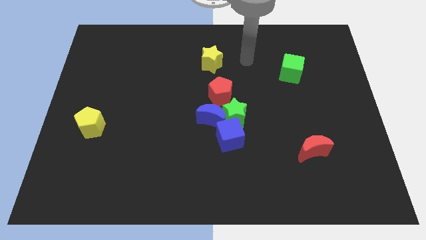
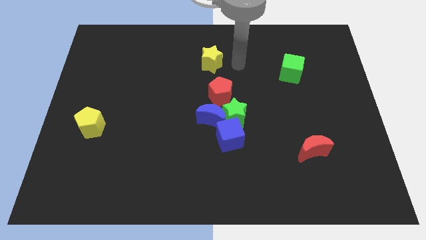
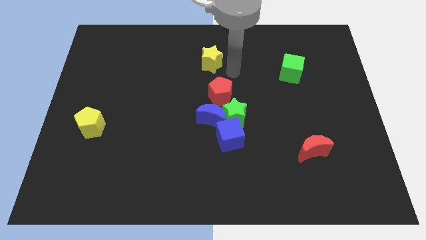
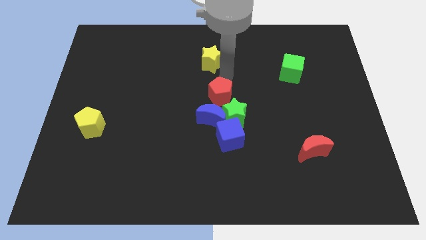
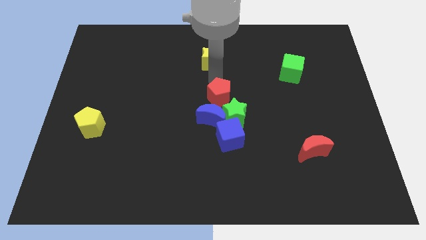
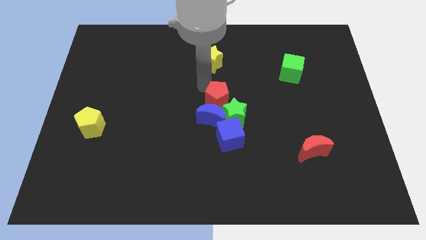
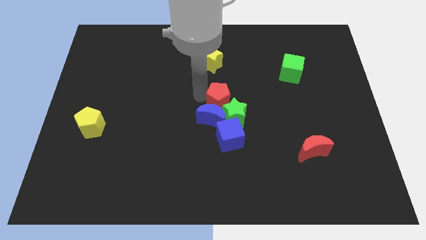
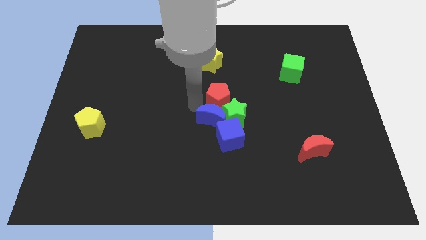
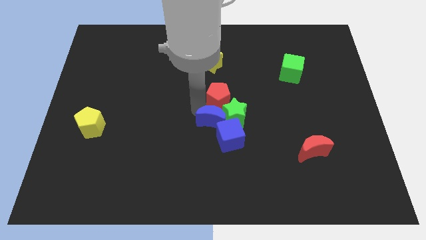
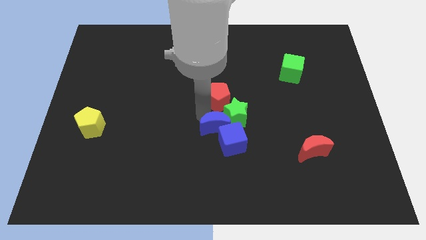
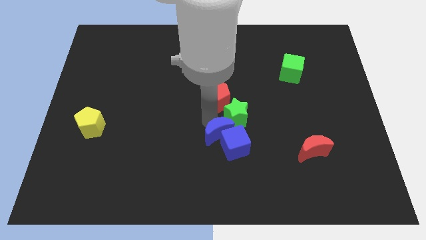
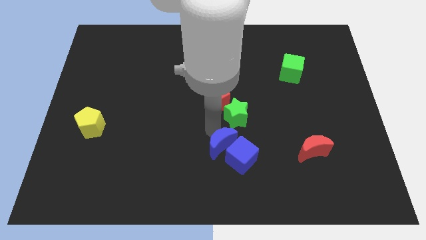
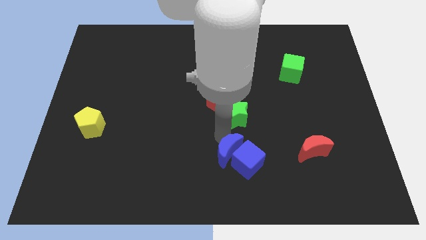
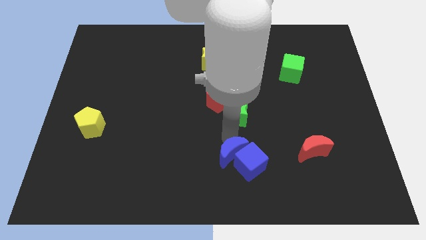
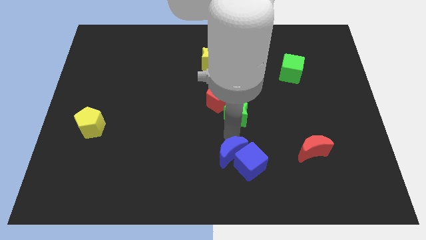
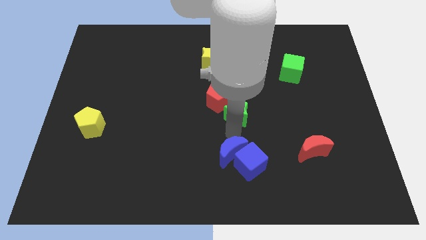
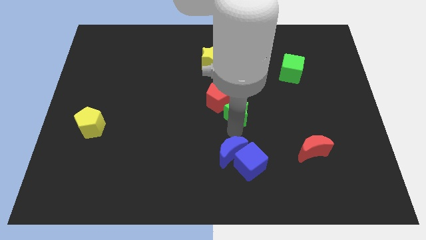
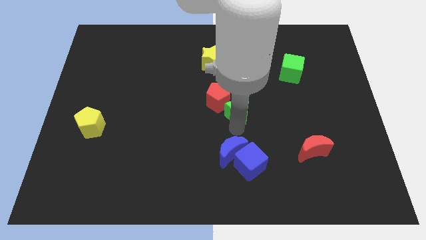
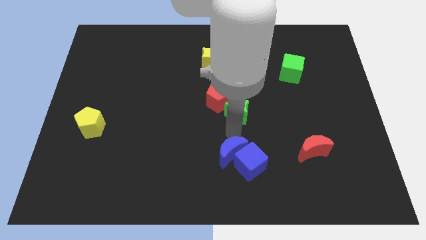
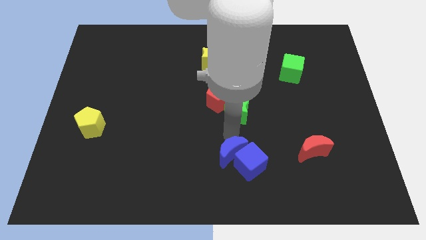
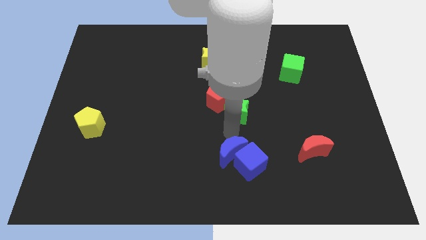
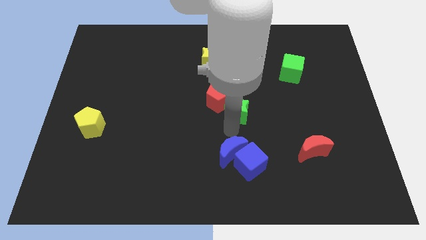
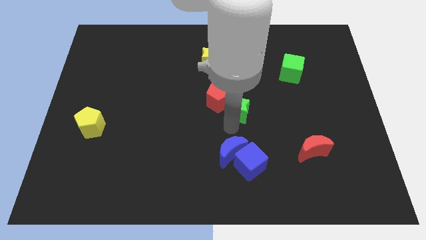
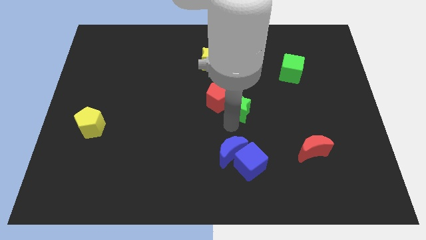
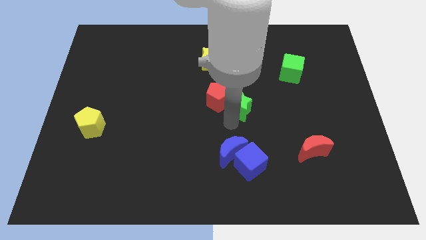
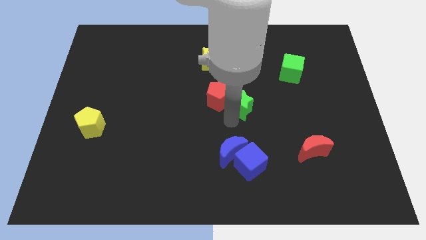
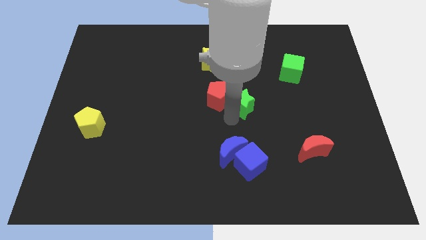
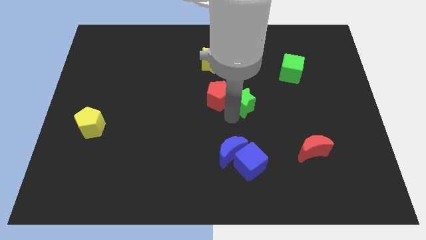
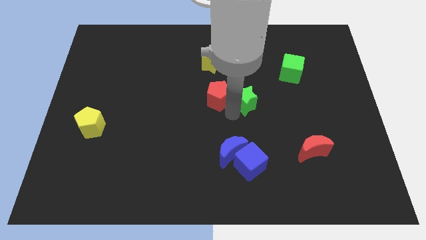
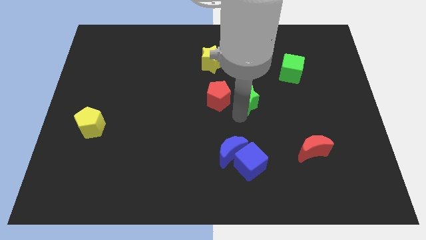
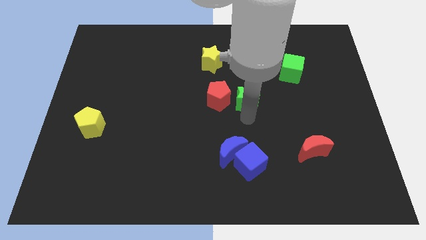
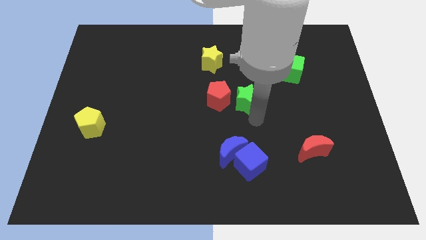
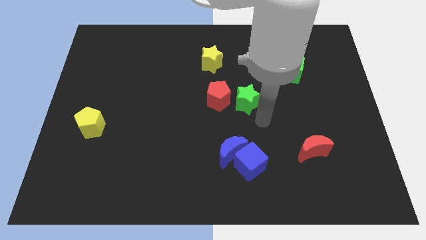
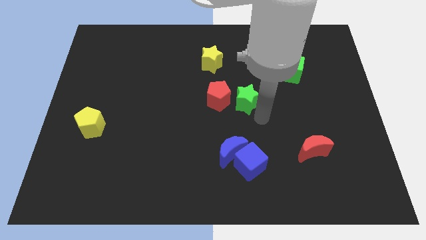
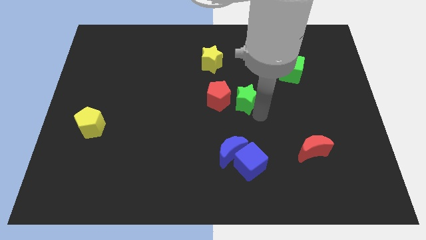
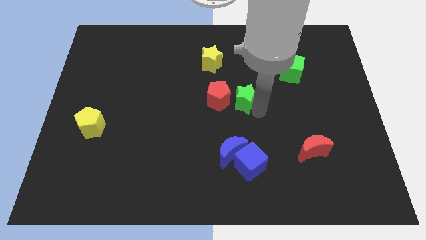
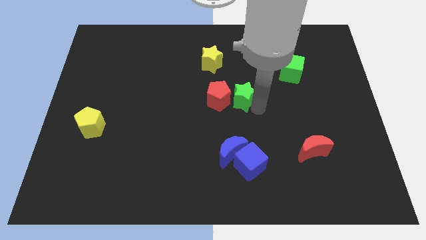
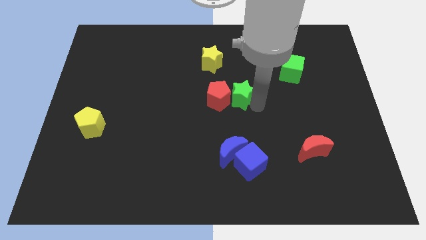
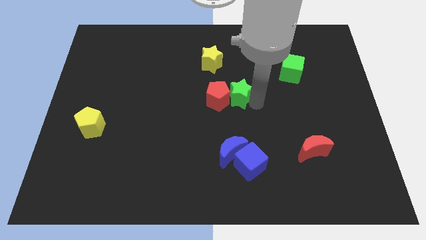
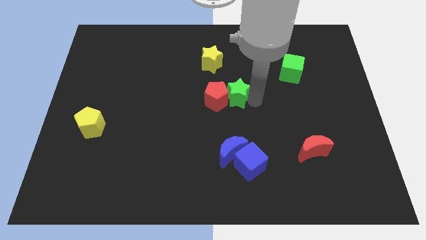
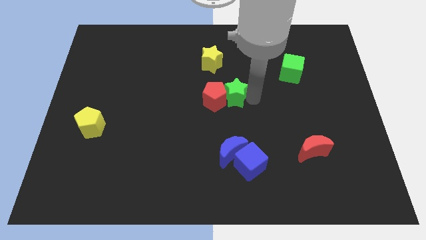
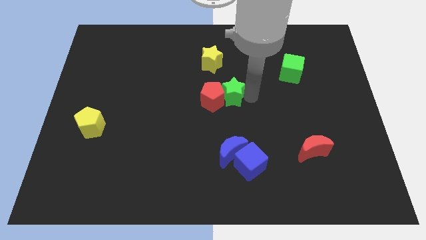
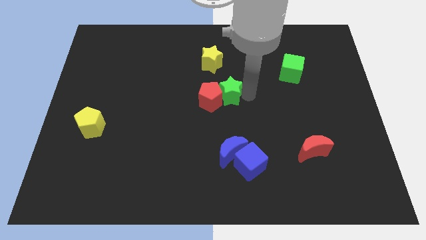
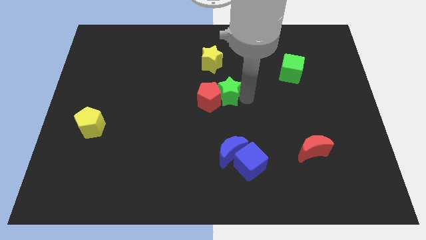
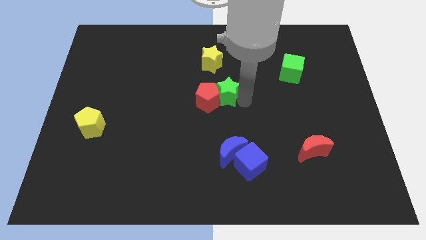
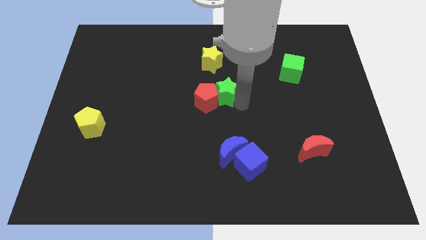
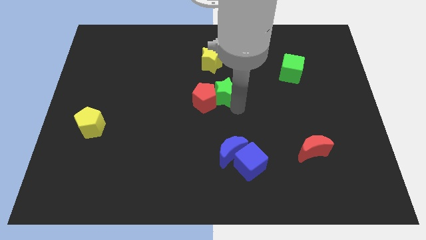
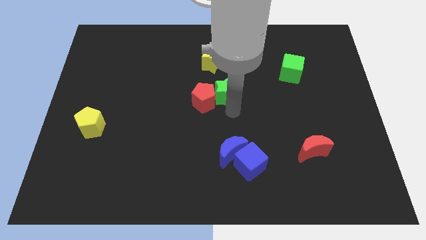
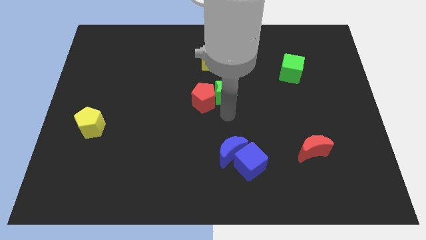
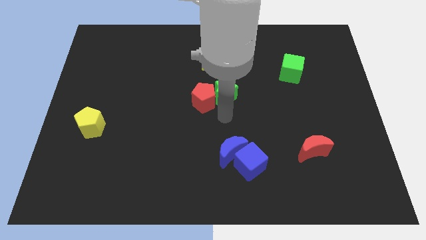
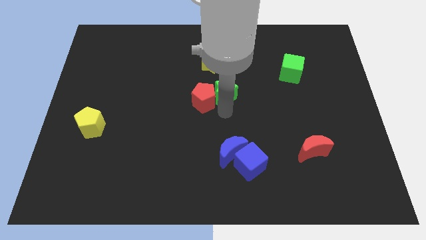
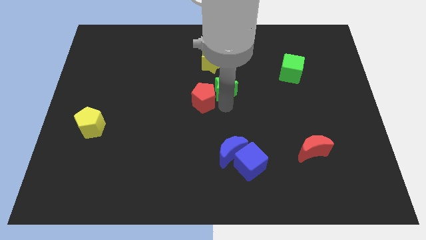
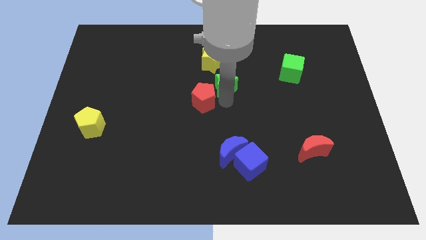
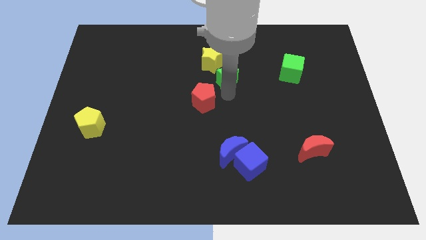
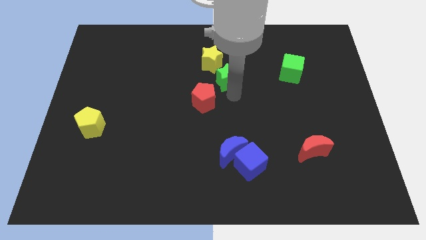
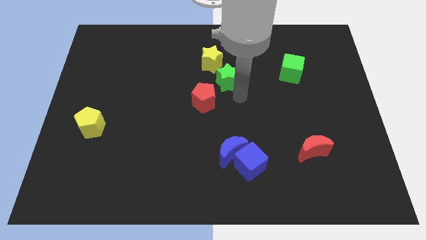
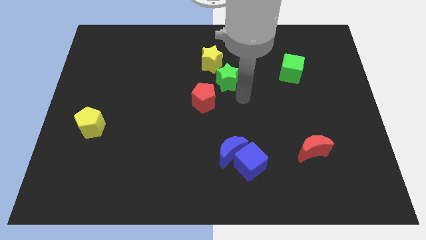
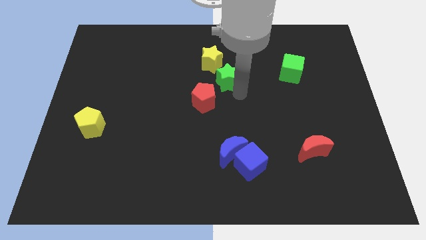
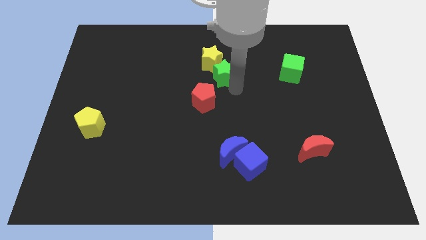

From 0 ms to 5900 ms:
push the green star next to the yellow star
